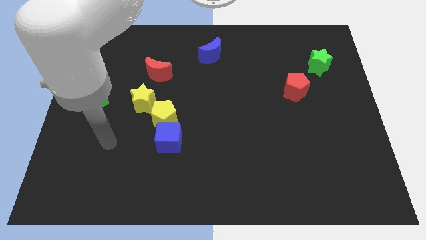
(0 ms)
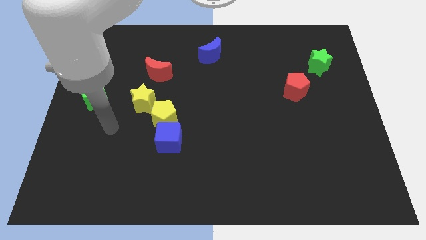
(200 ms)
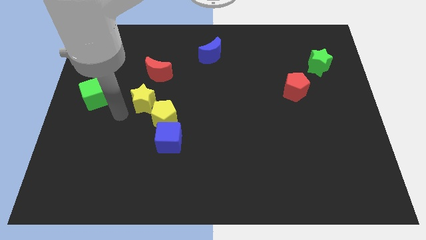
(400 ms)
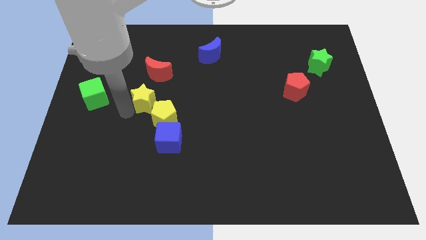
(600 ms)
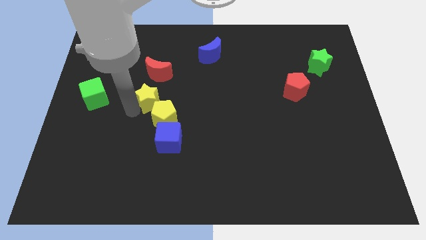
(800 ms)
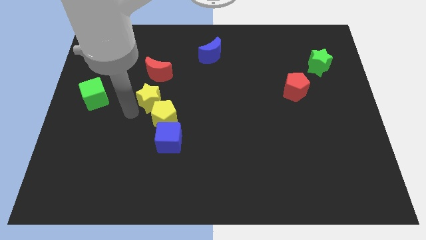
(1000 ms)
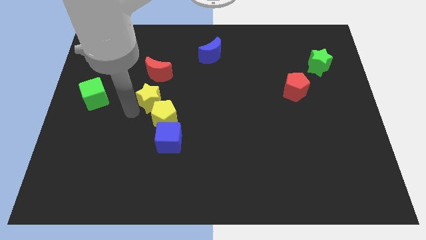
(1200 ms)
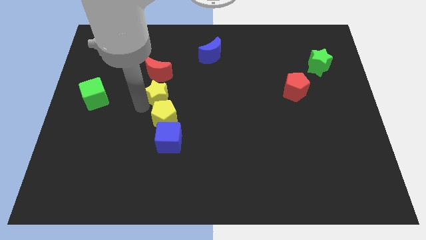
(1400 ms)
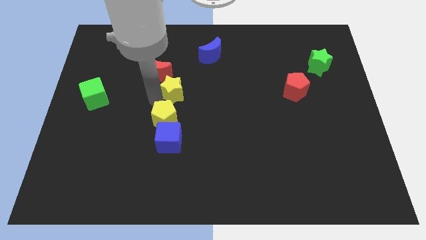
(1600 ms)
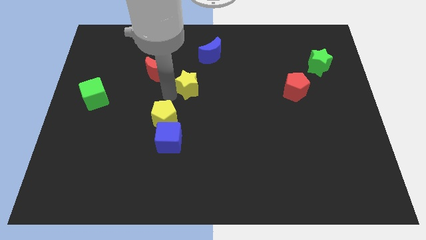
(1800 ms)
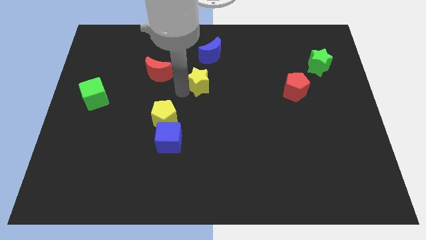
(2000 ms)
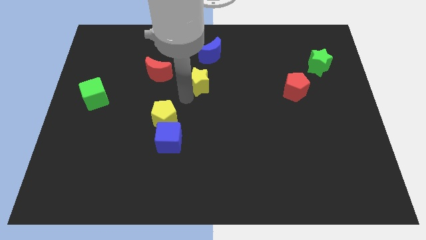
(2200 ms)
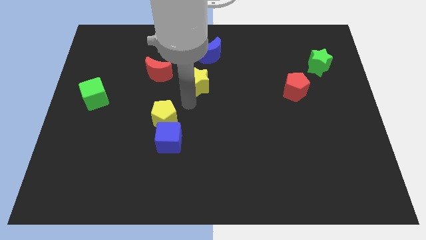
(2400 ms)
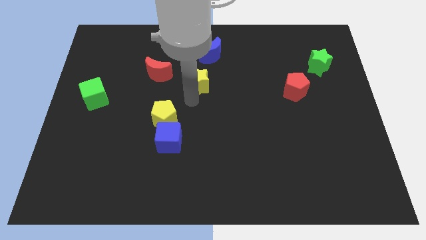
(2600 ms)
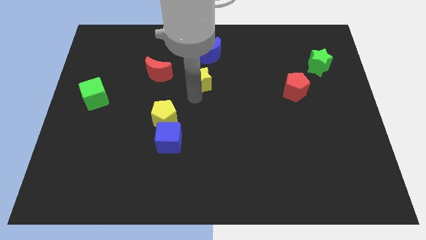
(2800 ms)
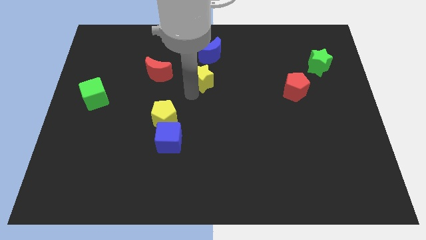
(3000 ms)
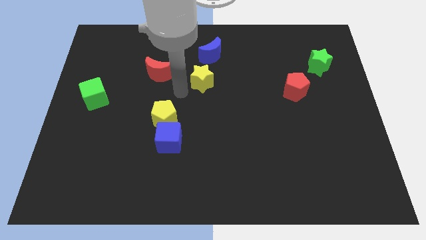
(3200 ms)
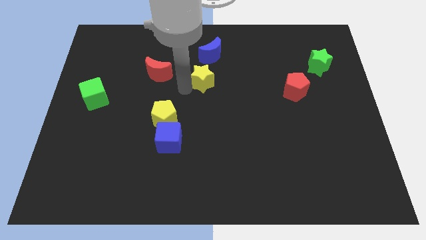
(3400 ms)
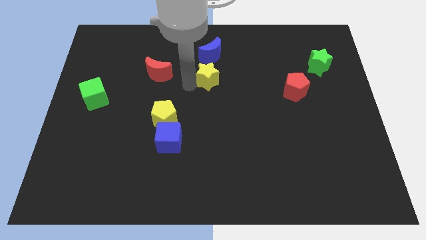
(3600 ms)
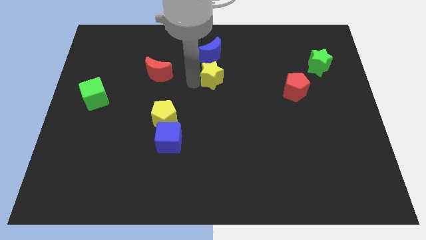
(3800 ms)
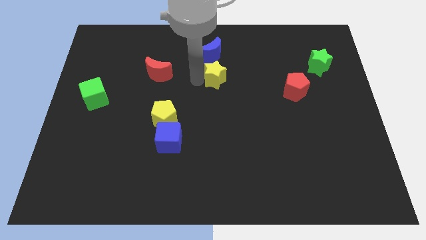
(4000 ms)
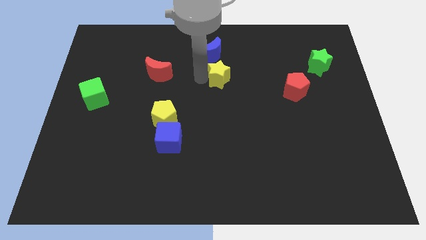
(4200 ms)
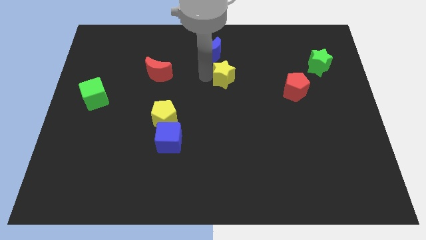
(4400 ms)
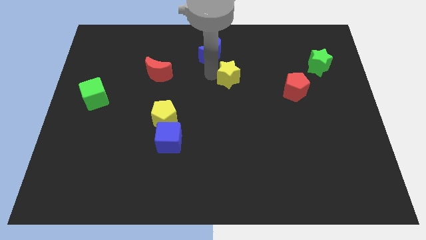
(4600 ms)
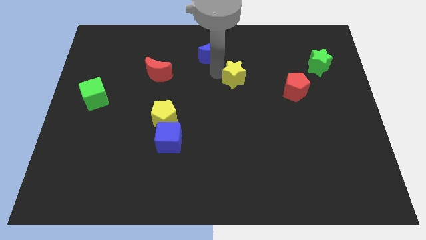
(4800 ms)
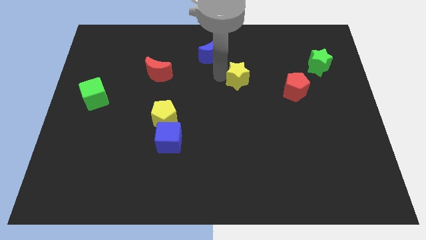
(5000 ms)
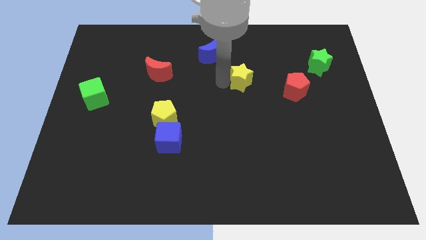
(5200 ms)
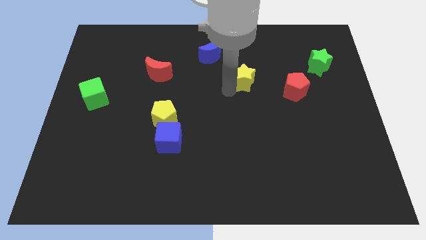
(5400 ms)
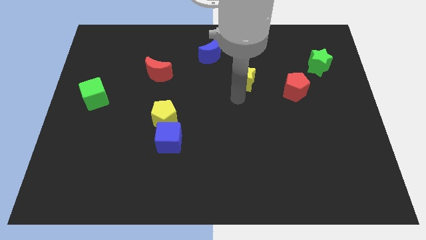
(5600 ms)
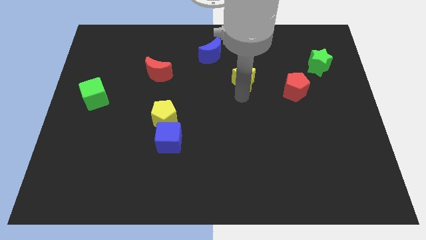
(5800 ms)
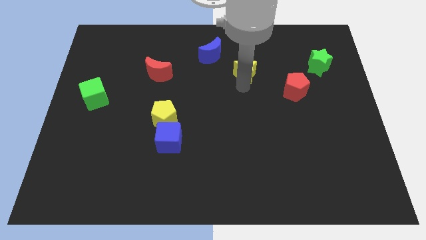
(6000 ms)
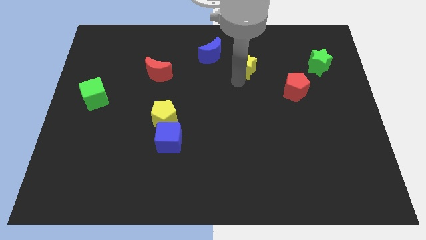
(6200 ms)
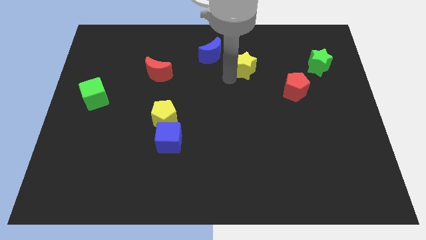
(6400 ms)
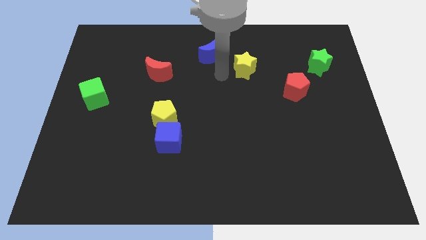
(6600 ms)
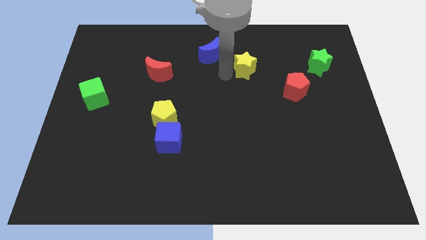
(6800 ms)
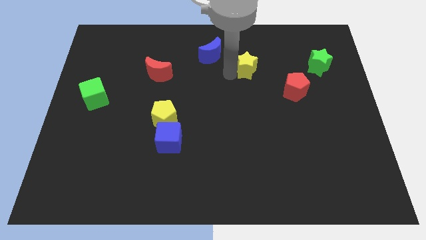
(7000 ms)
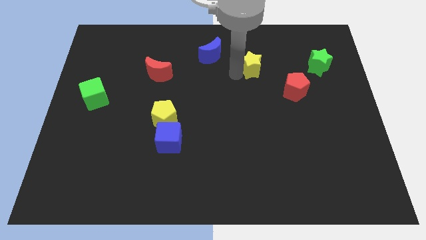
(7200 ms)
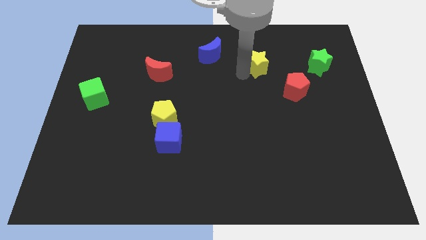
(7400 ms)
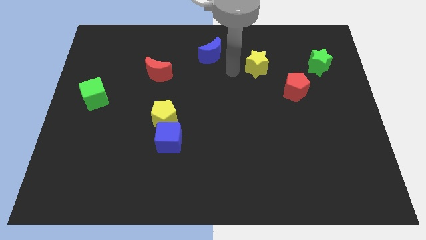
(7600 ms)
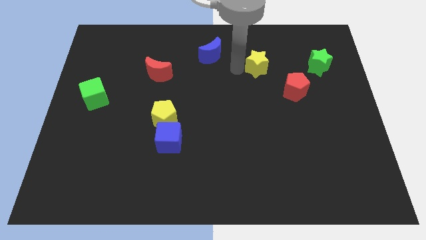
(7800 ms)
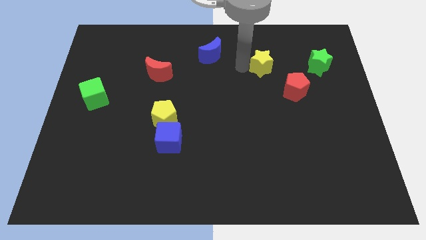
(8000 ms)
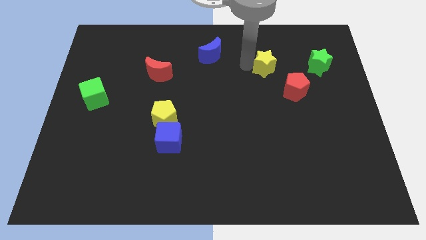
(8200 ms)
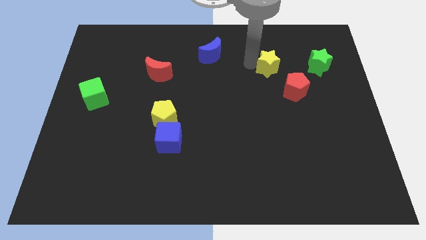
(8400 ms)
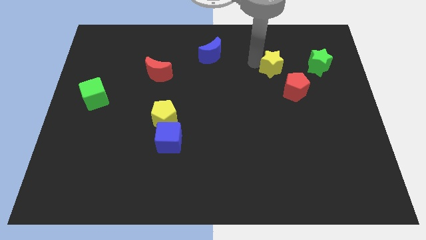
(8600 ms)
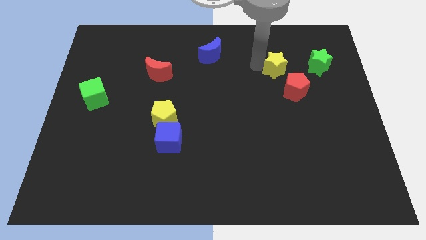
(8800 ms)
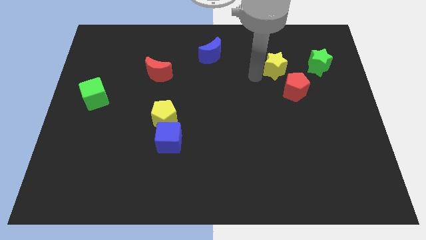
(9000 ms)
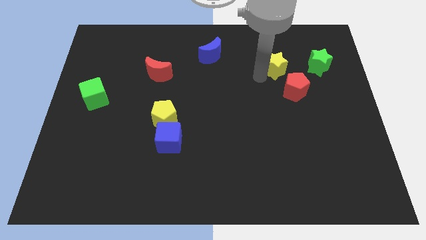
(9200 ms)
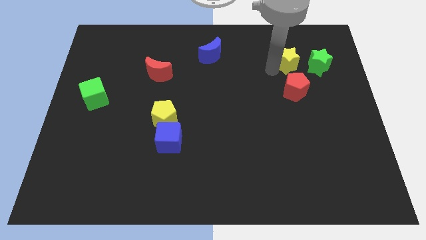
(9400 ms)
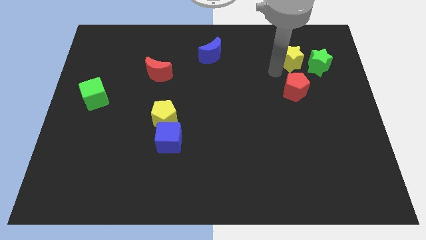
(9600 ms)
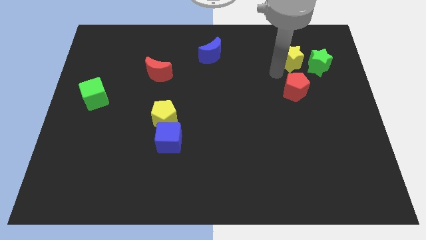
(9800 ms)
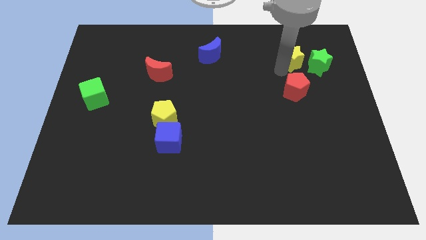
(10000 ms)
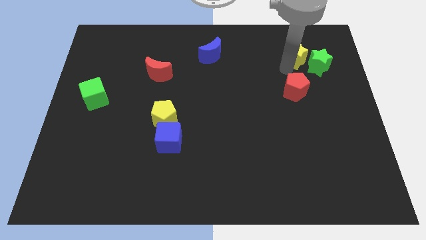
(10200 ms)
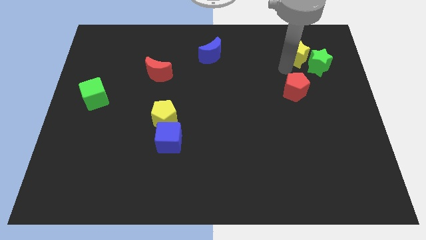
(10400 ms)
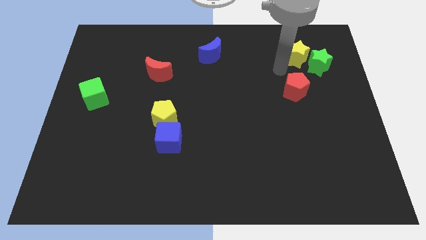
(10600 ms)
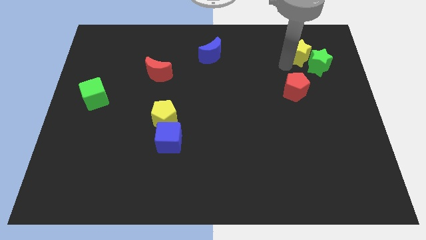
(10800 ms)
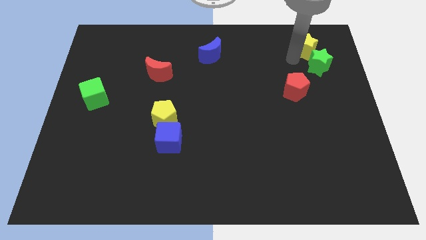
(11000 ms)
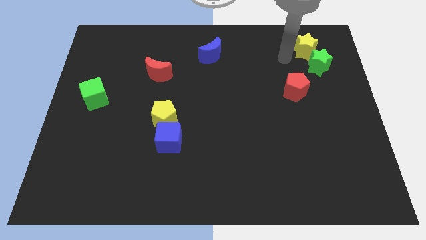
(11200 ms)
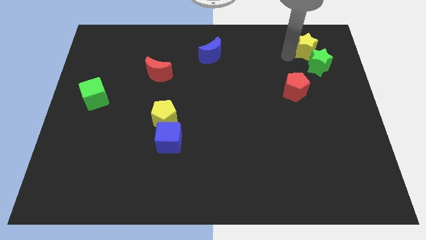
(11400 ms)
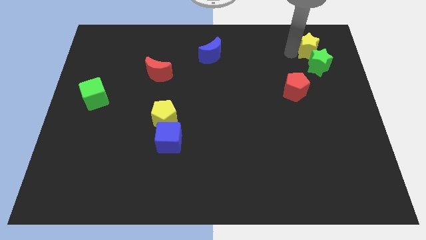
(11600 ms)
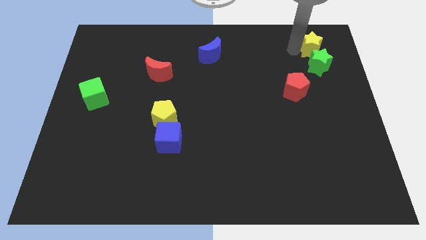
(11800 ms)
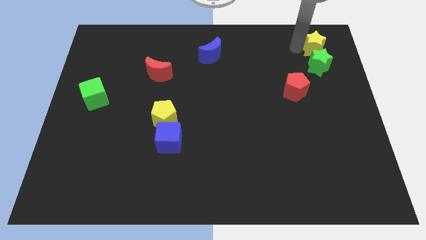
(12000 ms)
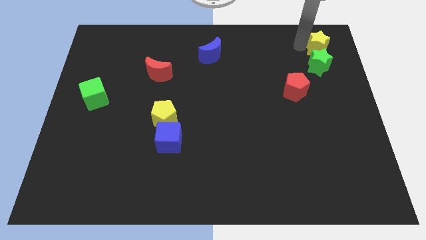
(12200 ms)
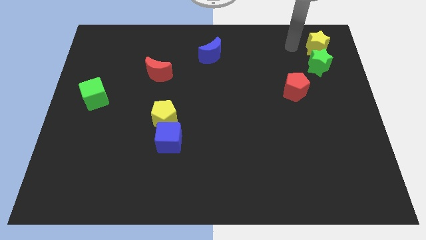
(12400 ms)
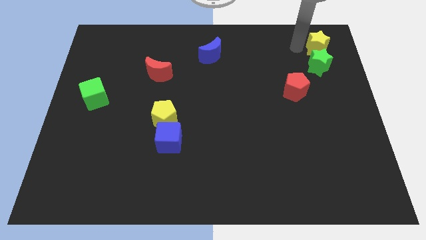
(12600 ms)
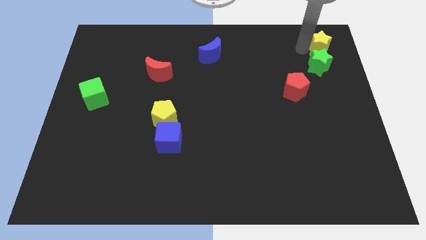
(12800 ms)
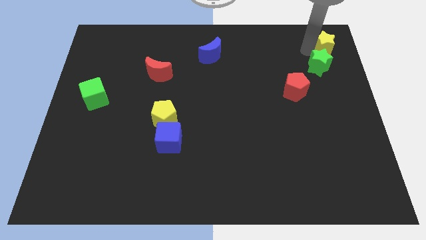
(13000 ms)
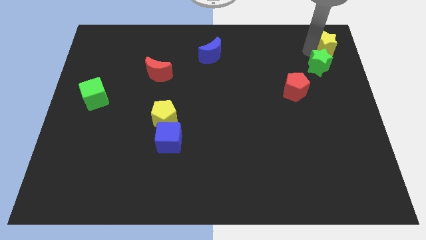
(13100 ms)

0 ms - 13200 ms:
slide the yellow star to the upper right corner

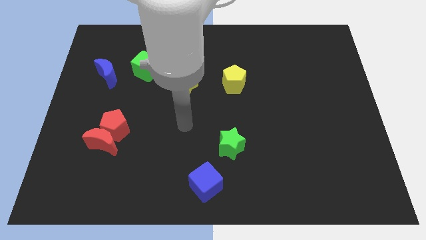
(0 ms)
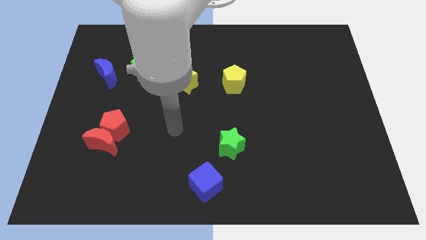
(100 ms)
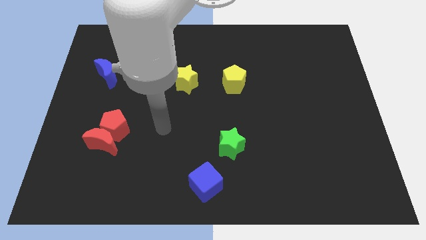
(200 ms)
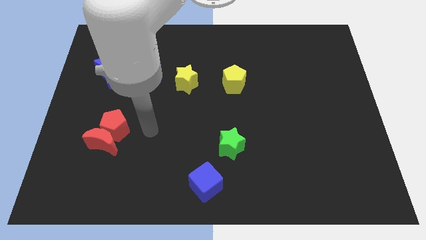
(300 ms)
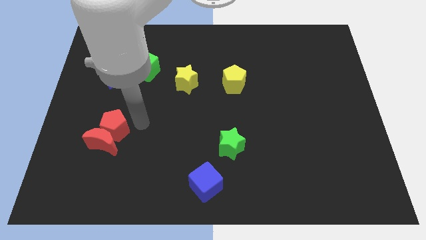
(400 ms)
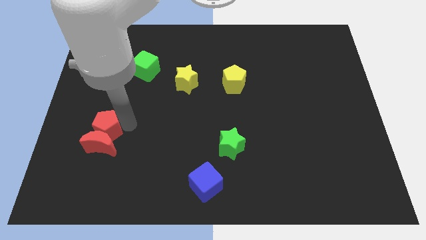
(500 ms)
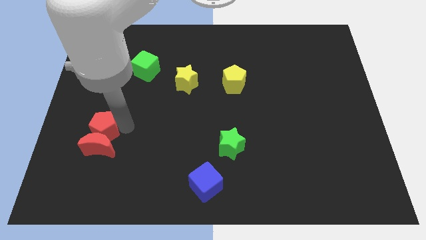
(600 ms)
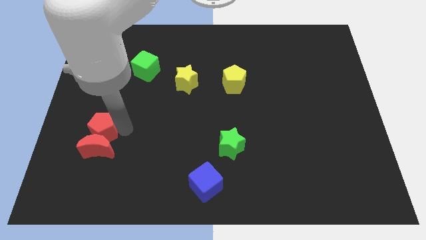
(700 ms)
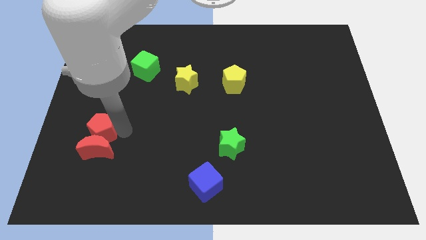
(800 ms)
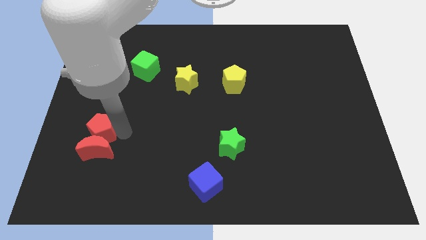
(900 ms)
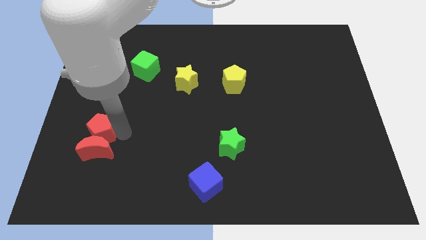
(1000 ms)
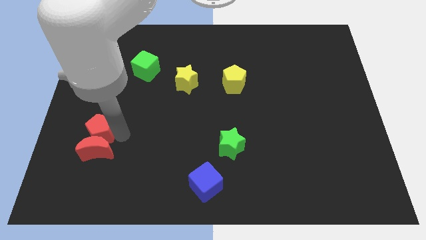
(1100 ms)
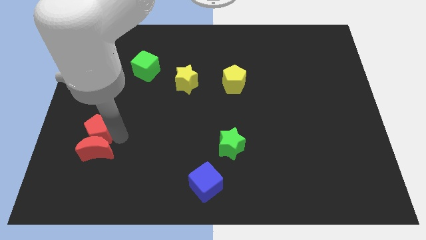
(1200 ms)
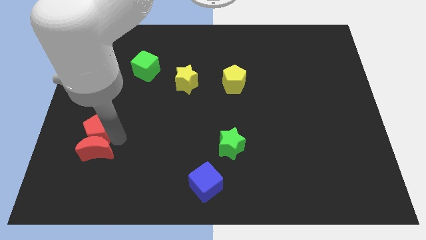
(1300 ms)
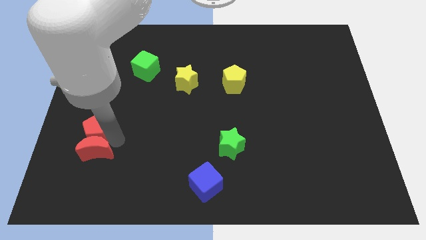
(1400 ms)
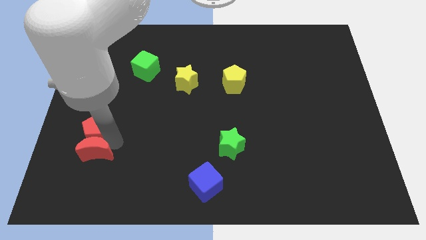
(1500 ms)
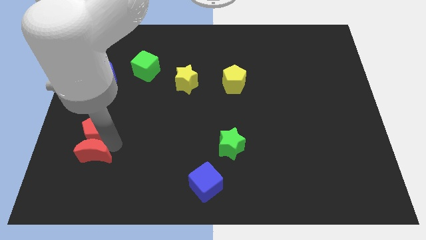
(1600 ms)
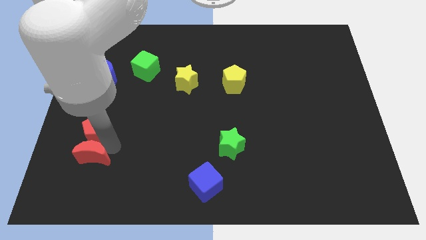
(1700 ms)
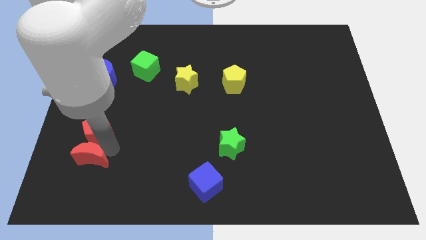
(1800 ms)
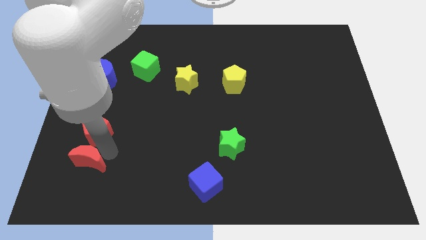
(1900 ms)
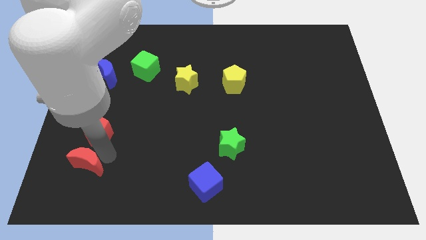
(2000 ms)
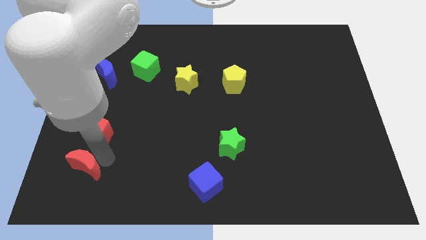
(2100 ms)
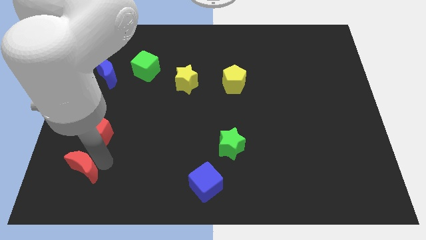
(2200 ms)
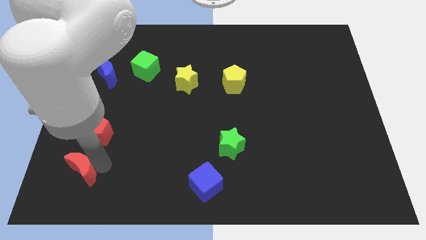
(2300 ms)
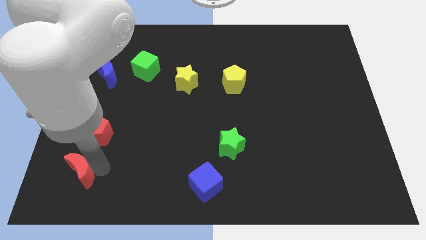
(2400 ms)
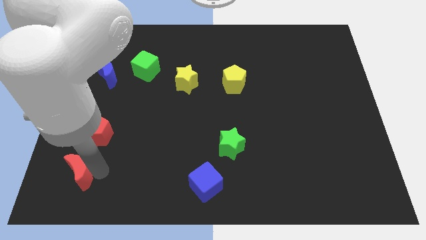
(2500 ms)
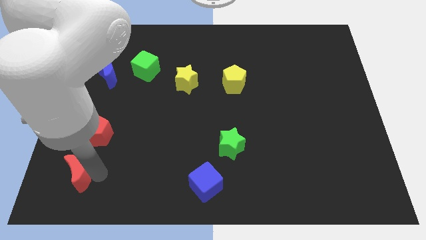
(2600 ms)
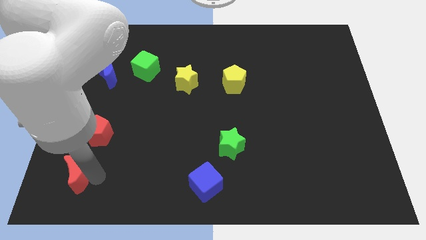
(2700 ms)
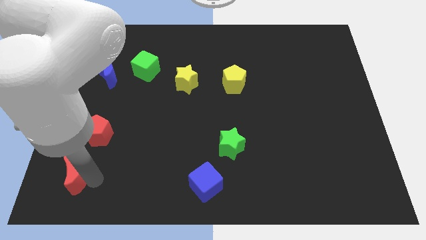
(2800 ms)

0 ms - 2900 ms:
put the red moon to the bottom left corner
